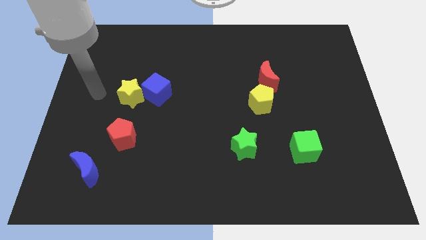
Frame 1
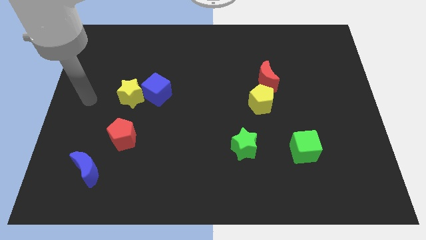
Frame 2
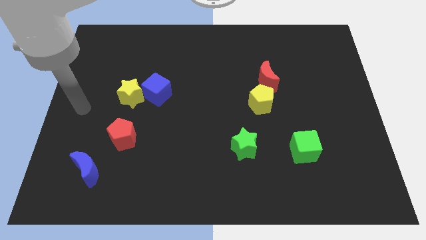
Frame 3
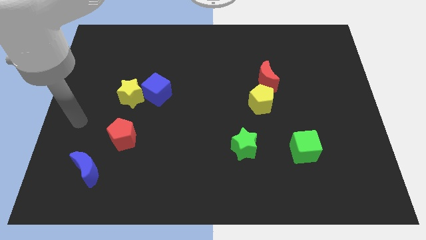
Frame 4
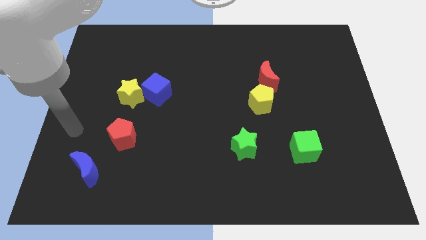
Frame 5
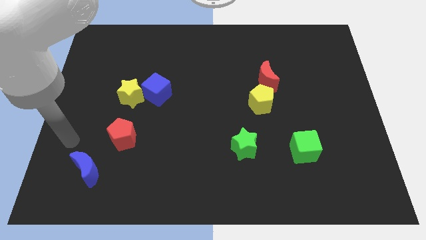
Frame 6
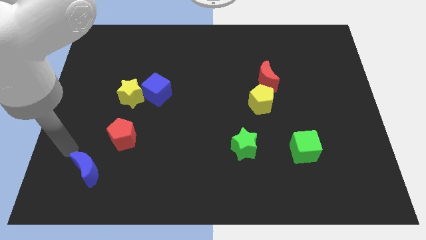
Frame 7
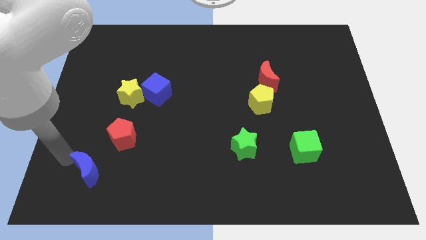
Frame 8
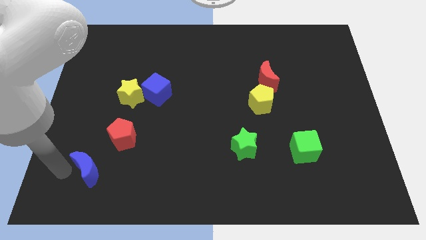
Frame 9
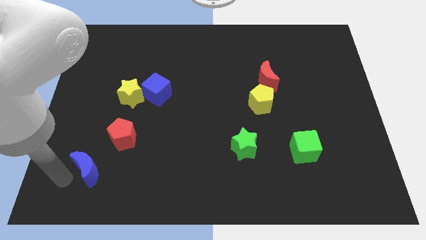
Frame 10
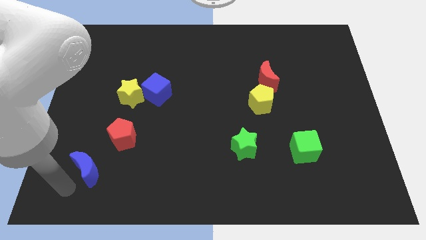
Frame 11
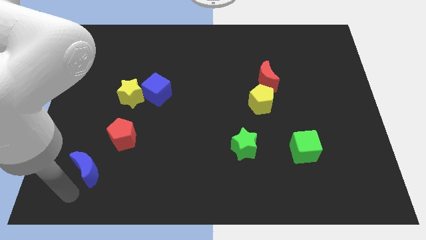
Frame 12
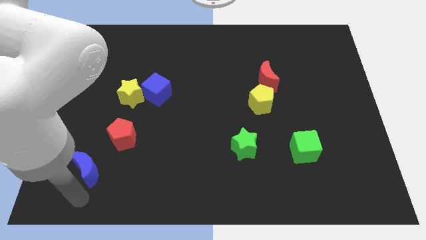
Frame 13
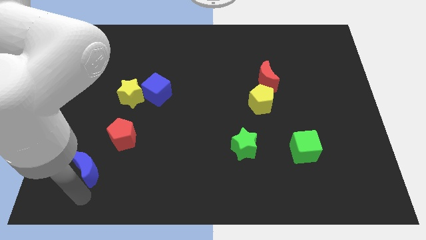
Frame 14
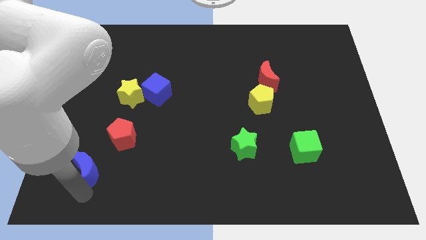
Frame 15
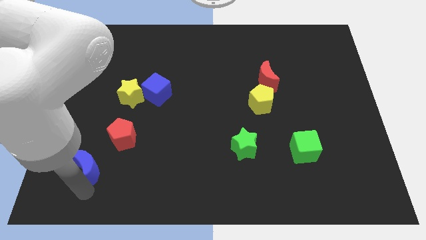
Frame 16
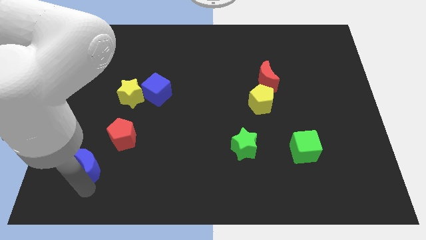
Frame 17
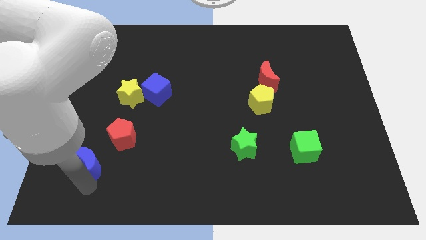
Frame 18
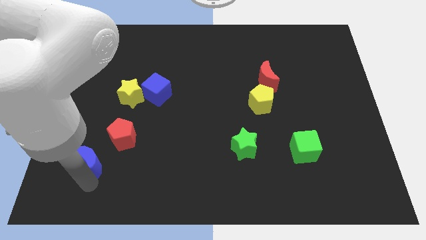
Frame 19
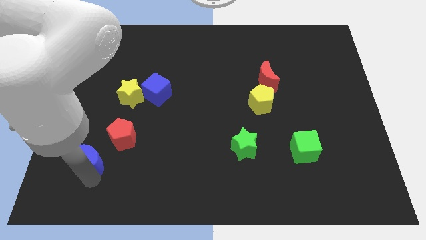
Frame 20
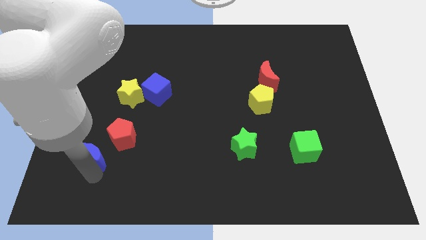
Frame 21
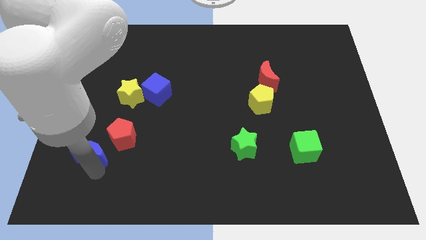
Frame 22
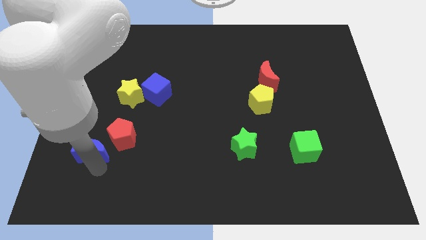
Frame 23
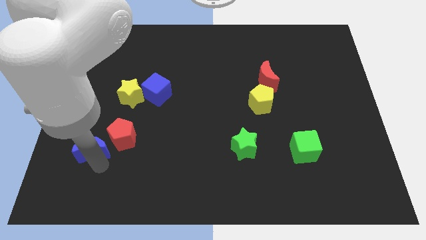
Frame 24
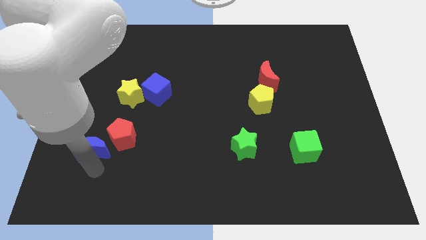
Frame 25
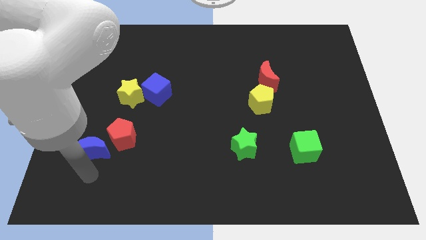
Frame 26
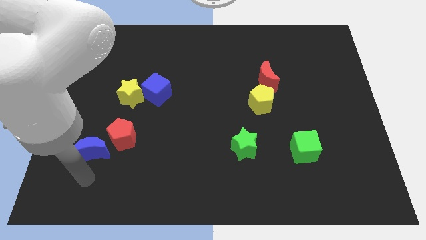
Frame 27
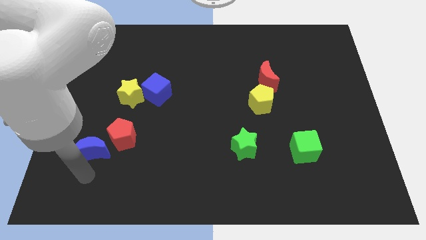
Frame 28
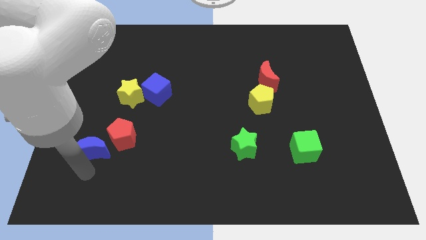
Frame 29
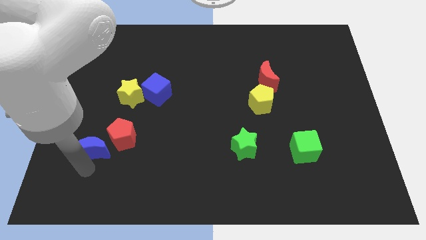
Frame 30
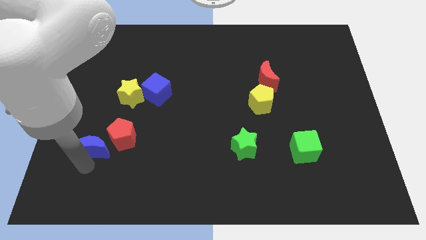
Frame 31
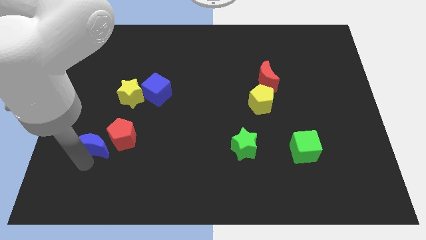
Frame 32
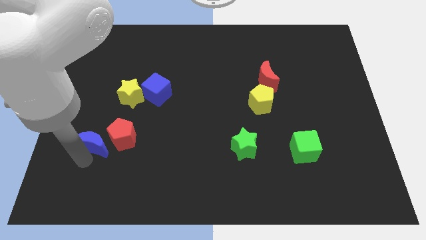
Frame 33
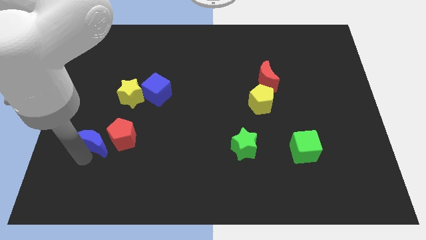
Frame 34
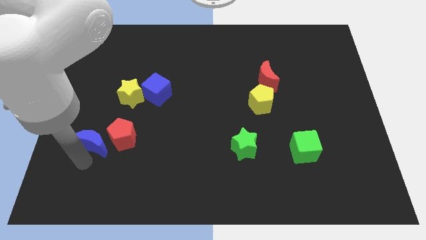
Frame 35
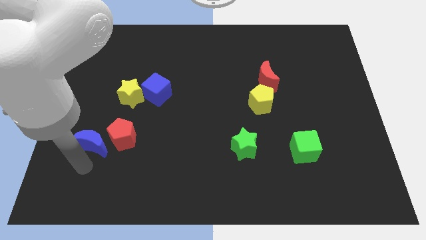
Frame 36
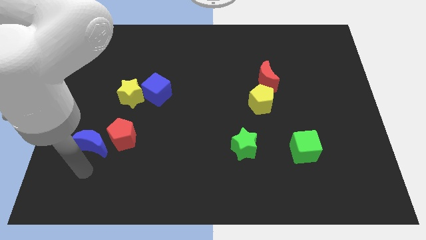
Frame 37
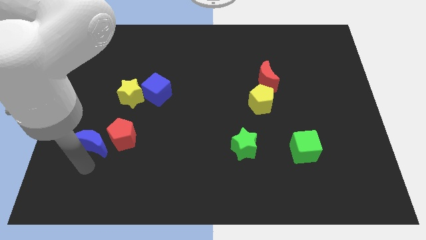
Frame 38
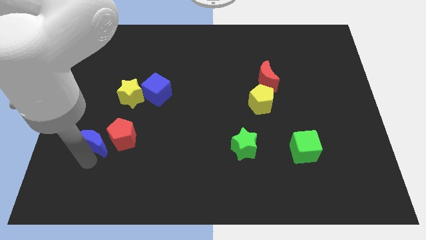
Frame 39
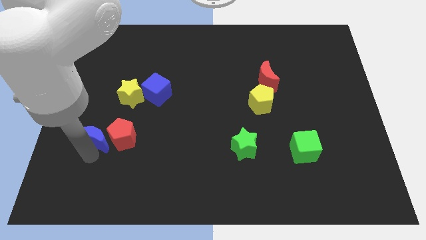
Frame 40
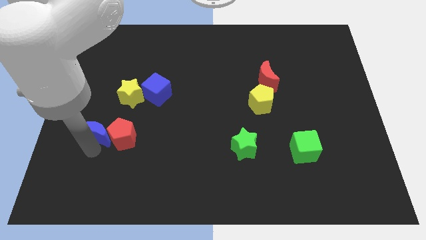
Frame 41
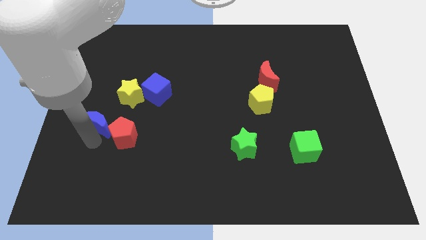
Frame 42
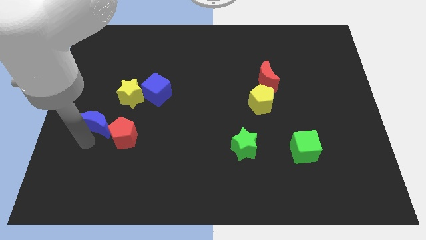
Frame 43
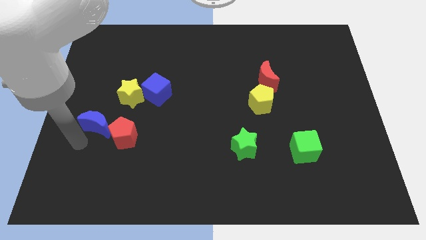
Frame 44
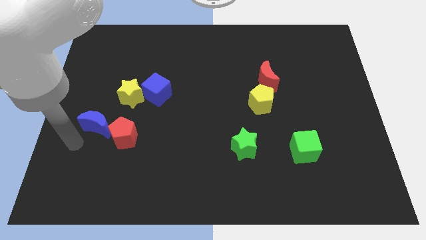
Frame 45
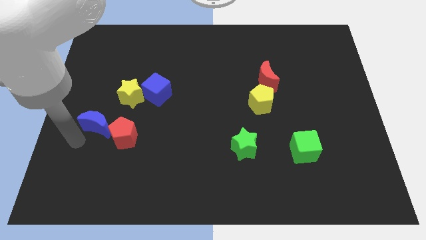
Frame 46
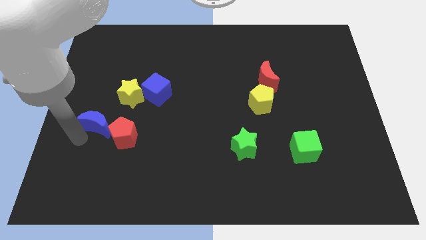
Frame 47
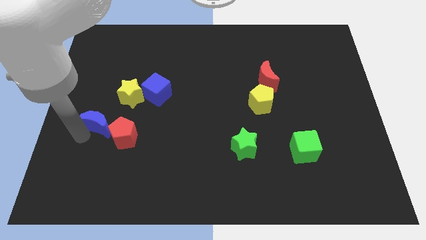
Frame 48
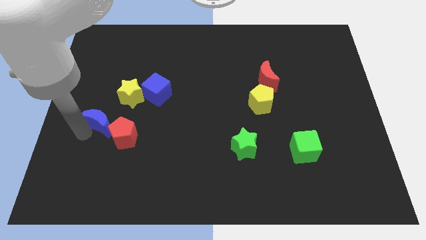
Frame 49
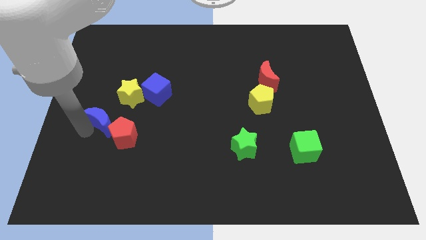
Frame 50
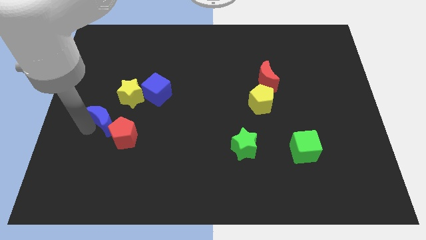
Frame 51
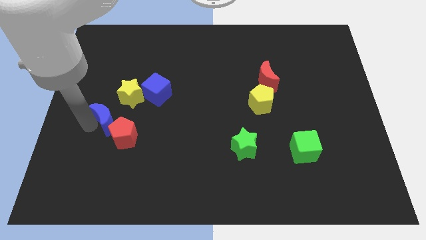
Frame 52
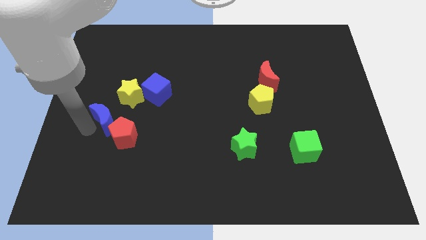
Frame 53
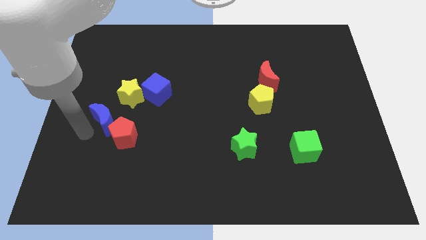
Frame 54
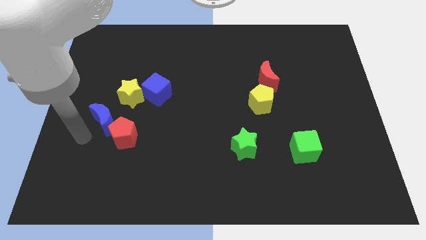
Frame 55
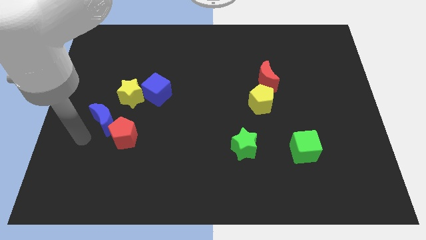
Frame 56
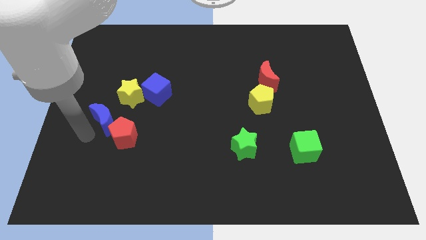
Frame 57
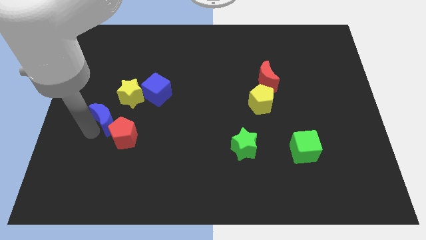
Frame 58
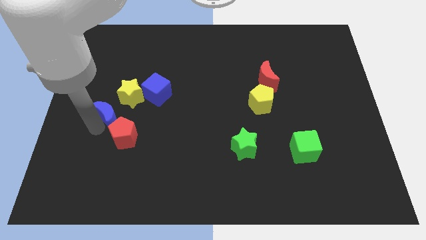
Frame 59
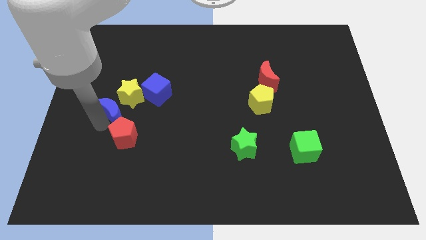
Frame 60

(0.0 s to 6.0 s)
push the blue moon towards the yellow star

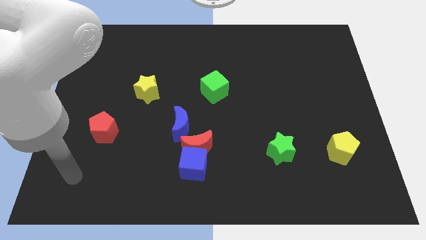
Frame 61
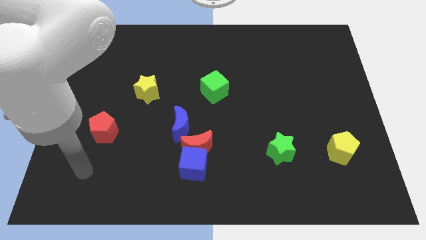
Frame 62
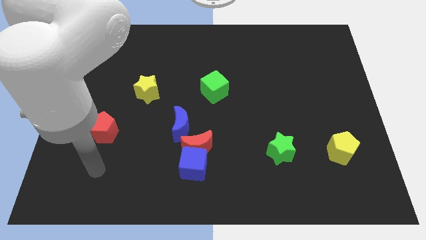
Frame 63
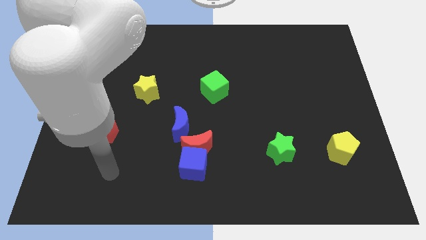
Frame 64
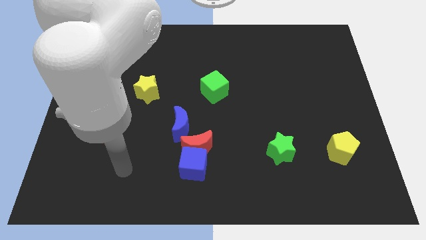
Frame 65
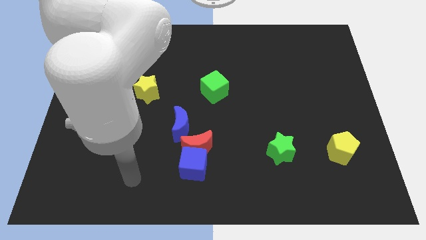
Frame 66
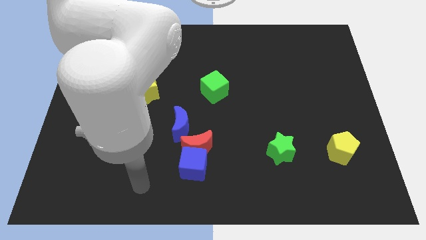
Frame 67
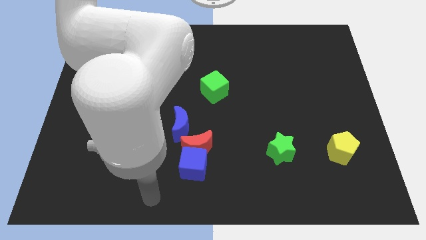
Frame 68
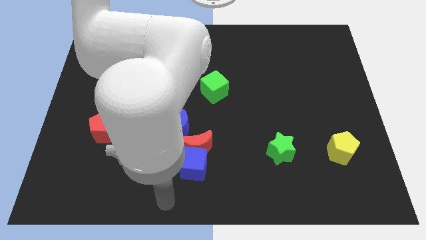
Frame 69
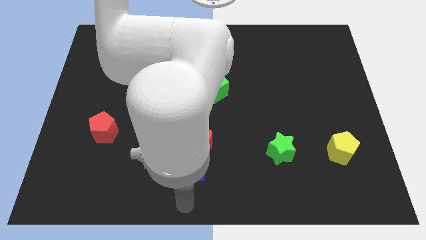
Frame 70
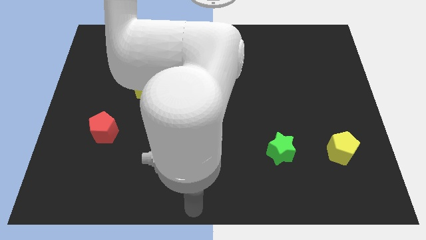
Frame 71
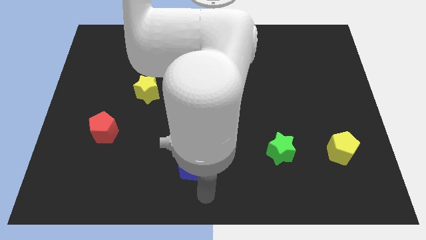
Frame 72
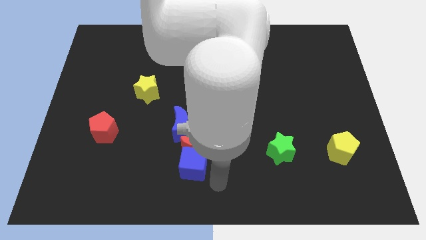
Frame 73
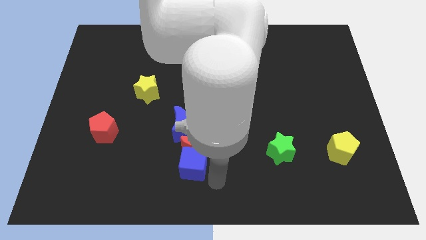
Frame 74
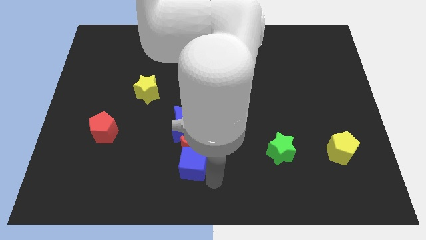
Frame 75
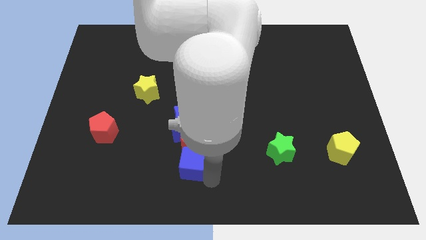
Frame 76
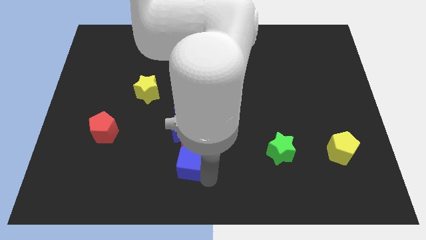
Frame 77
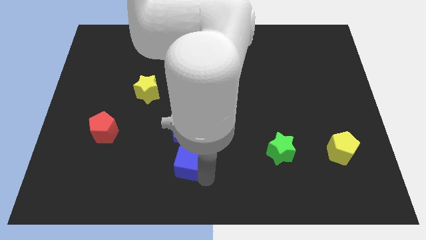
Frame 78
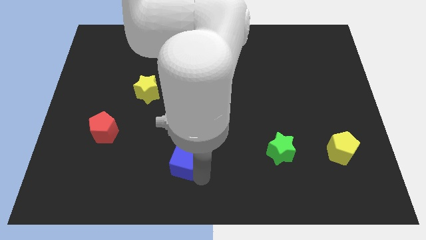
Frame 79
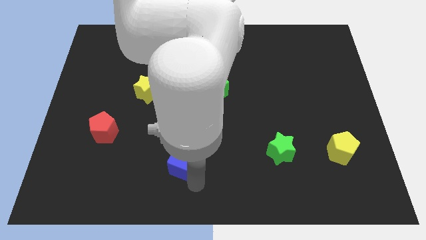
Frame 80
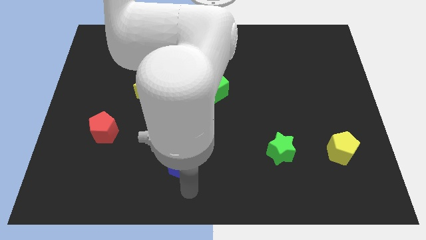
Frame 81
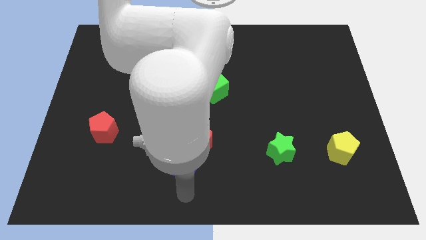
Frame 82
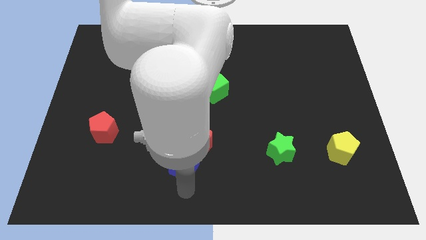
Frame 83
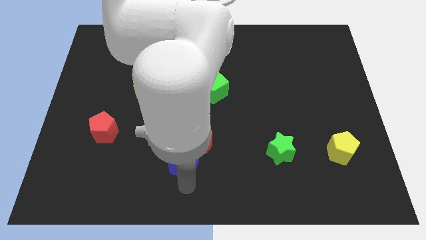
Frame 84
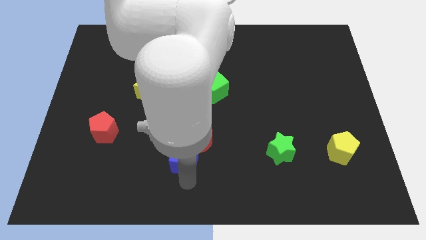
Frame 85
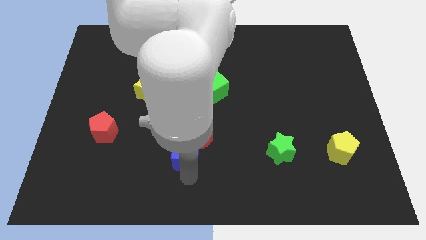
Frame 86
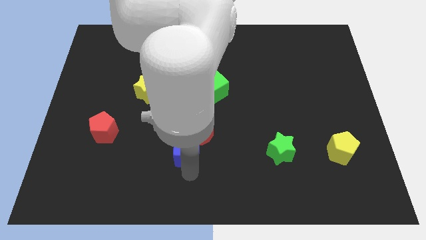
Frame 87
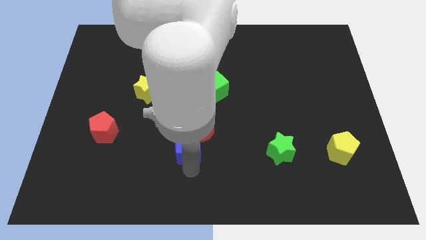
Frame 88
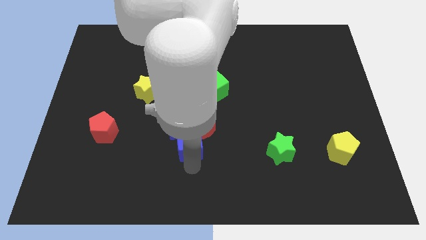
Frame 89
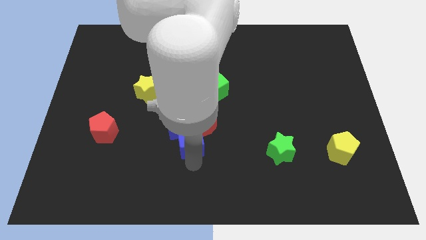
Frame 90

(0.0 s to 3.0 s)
push the blue cube to the blue moon
